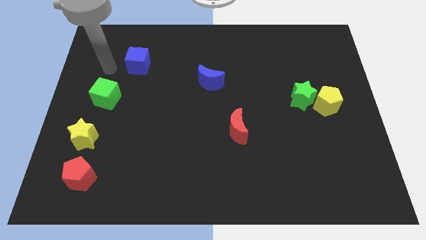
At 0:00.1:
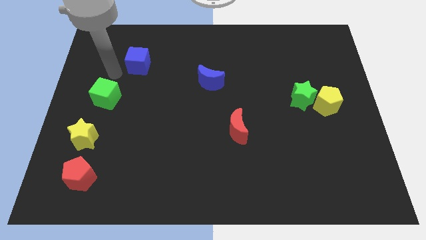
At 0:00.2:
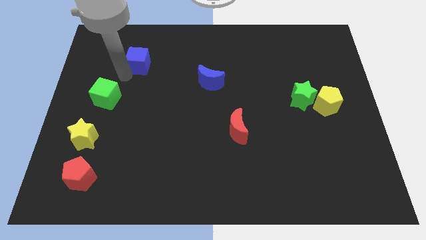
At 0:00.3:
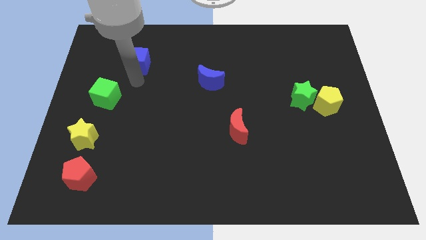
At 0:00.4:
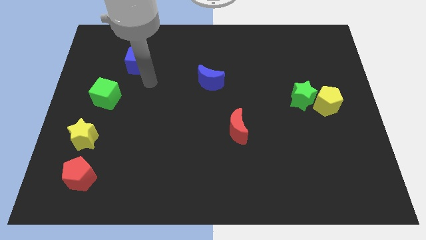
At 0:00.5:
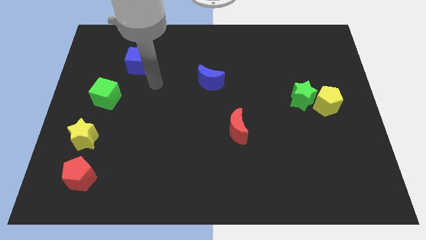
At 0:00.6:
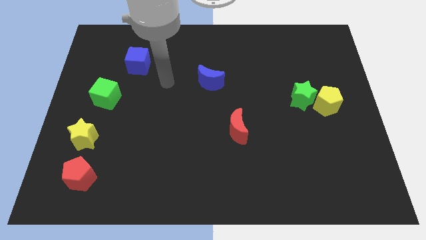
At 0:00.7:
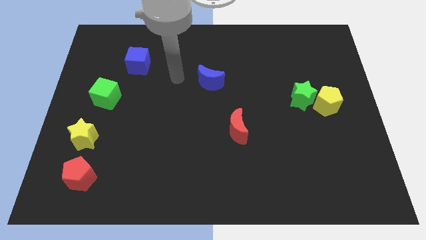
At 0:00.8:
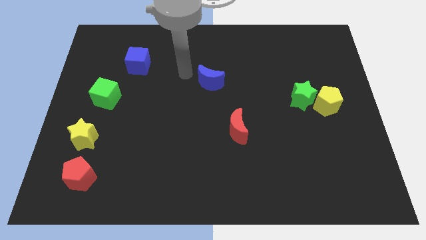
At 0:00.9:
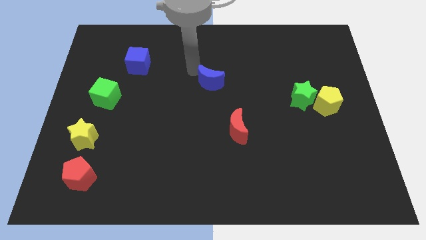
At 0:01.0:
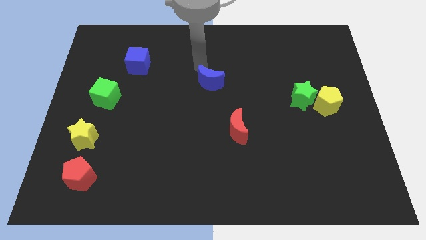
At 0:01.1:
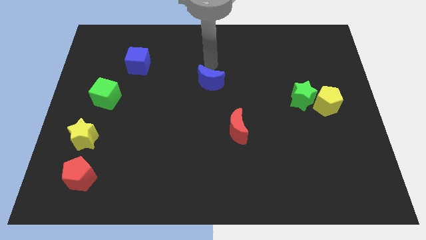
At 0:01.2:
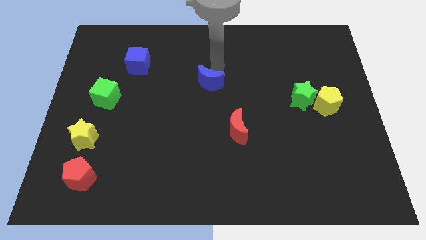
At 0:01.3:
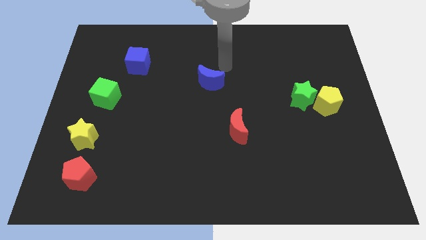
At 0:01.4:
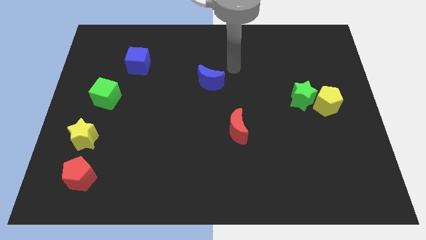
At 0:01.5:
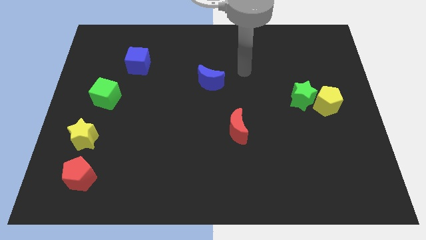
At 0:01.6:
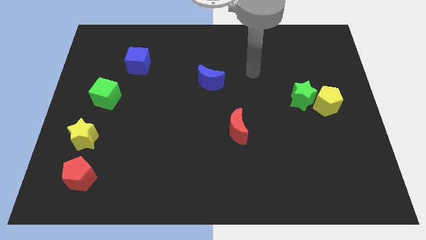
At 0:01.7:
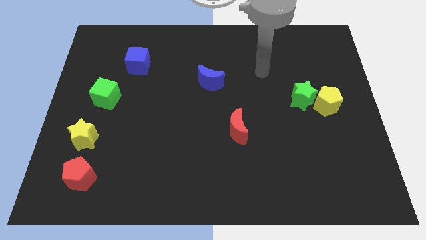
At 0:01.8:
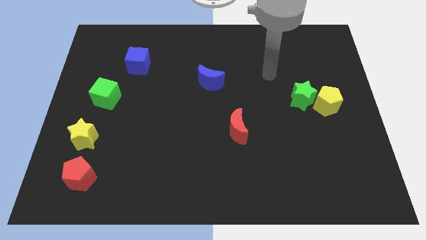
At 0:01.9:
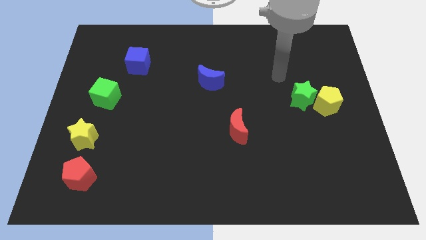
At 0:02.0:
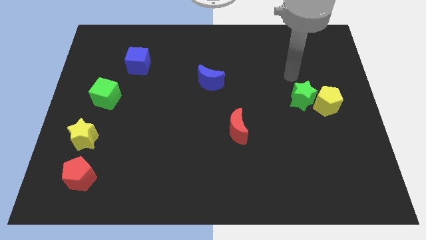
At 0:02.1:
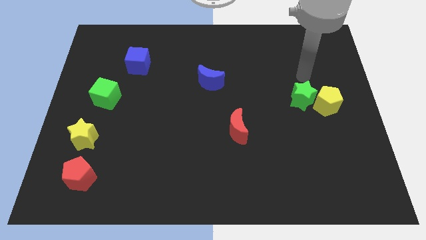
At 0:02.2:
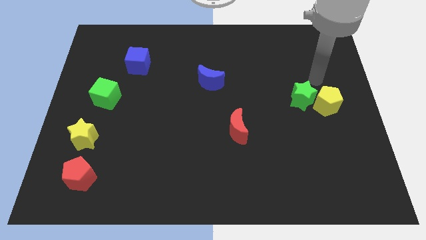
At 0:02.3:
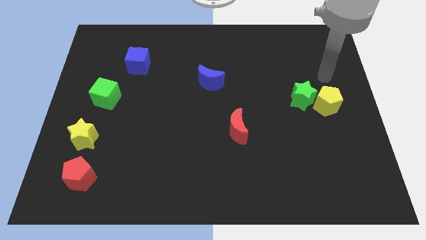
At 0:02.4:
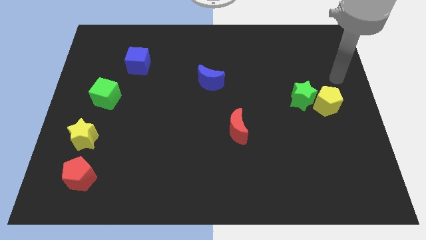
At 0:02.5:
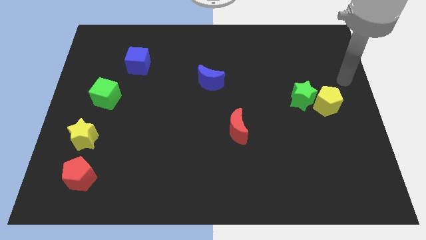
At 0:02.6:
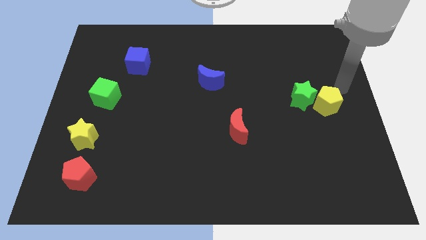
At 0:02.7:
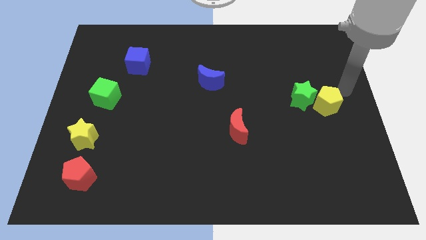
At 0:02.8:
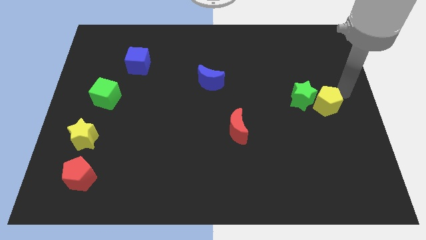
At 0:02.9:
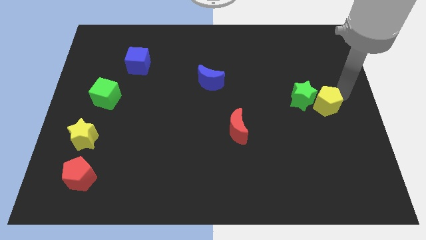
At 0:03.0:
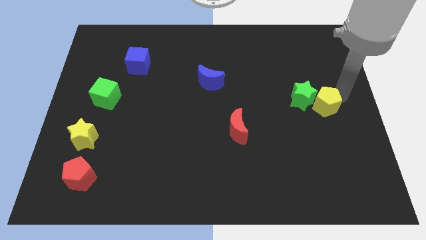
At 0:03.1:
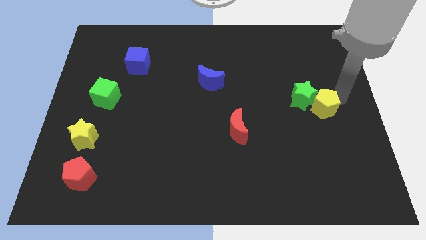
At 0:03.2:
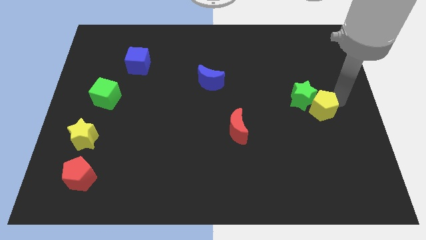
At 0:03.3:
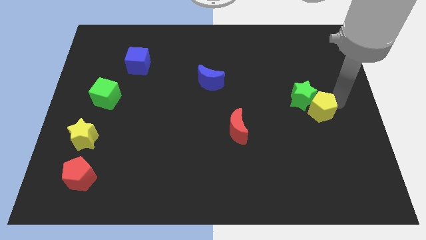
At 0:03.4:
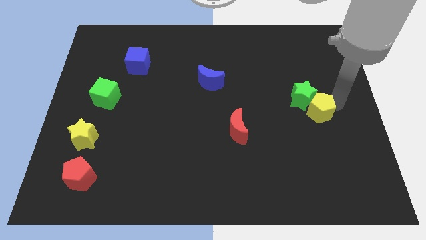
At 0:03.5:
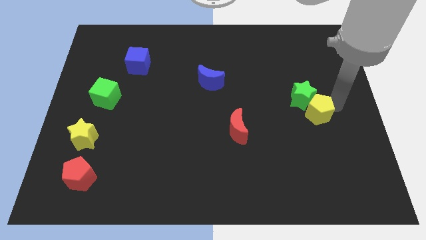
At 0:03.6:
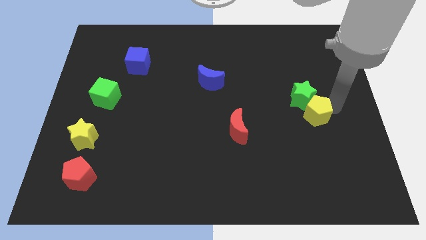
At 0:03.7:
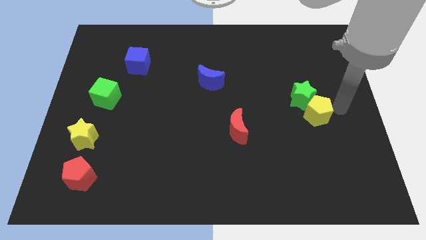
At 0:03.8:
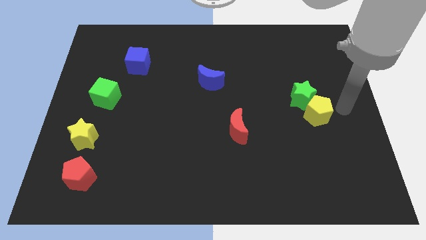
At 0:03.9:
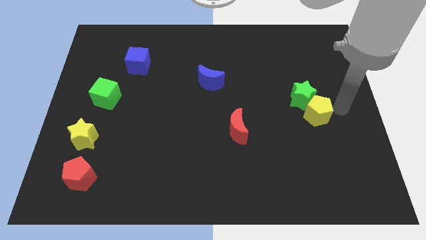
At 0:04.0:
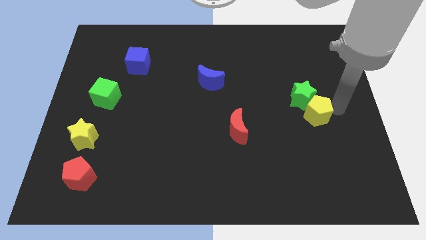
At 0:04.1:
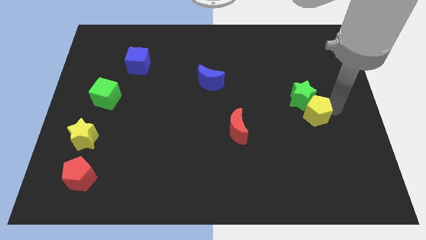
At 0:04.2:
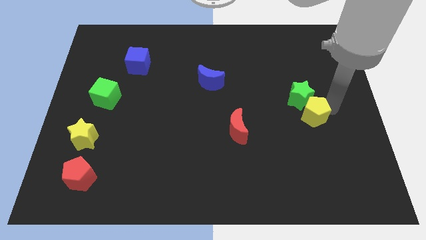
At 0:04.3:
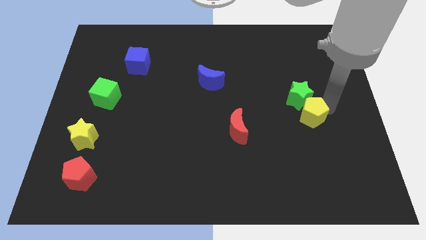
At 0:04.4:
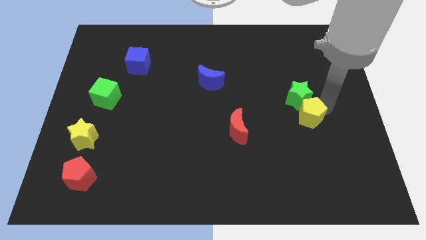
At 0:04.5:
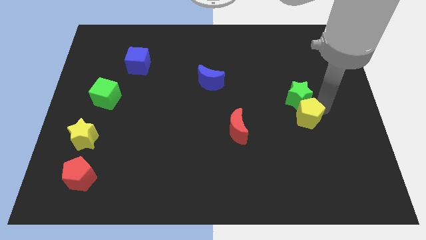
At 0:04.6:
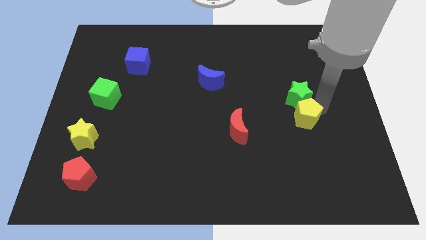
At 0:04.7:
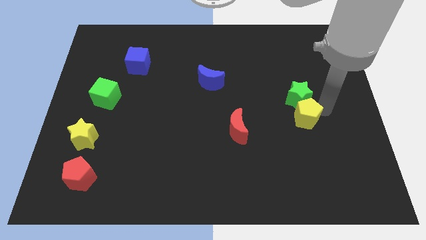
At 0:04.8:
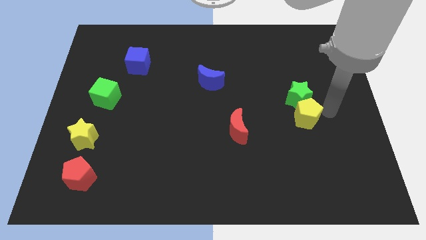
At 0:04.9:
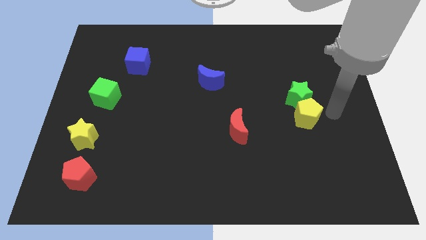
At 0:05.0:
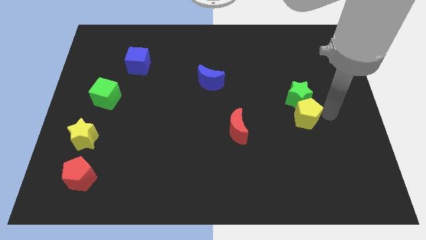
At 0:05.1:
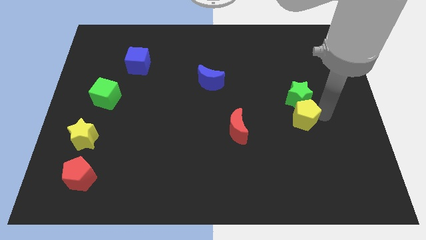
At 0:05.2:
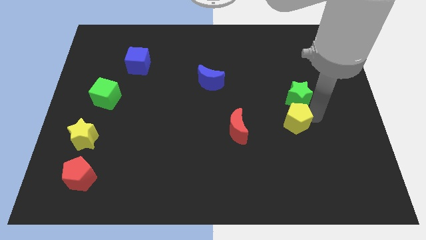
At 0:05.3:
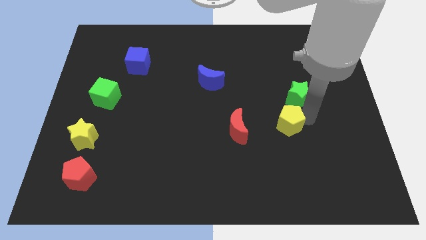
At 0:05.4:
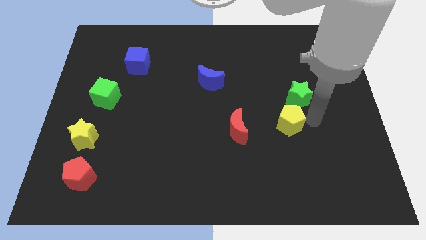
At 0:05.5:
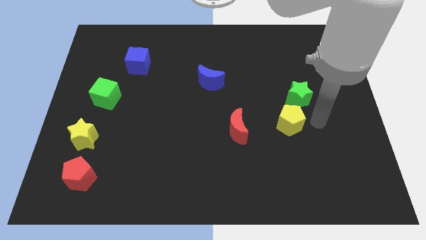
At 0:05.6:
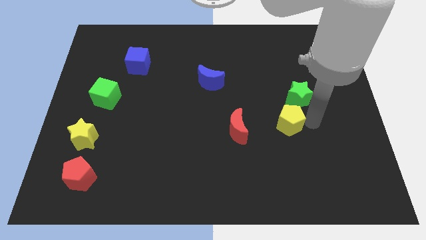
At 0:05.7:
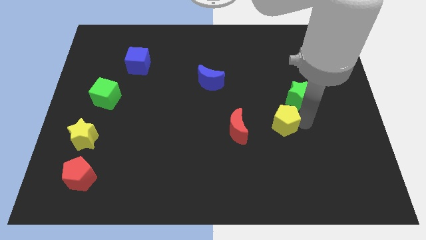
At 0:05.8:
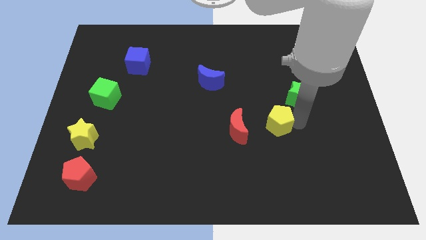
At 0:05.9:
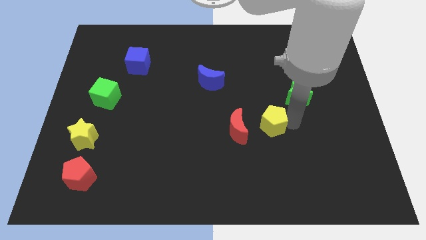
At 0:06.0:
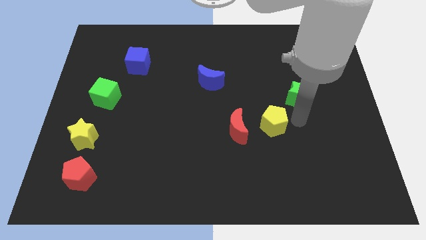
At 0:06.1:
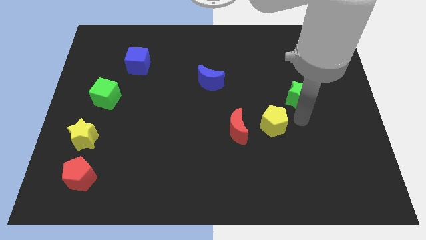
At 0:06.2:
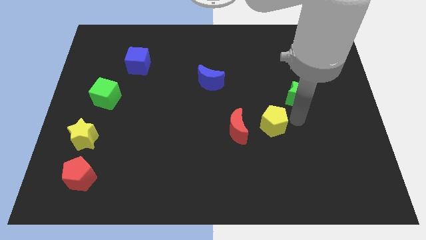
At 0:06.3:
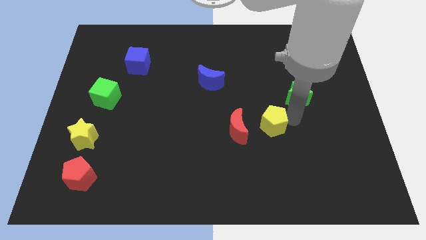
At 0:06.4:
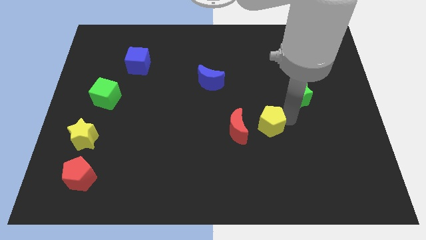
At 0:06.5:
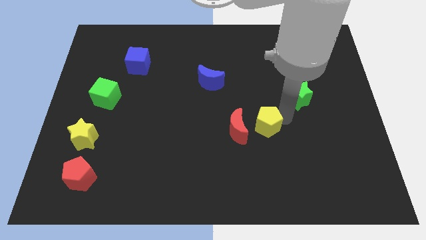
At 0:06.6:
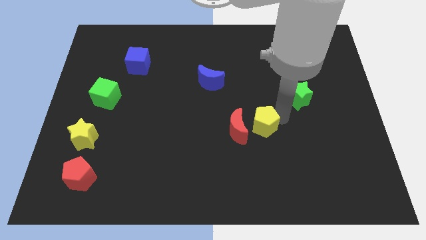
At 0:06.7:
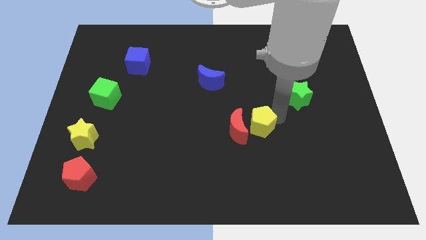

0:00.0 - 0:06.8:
slide the yellow pentagon close to the red moon
